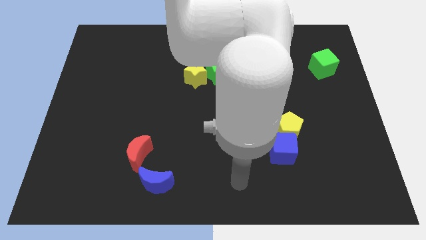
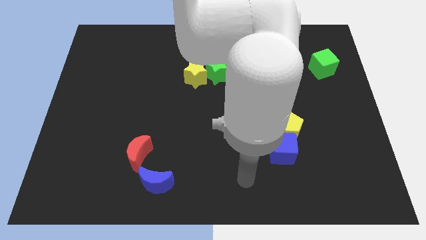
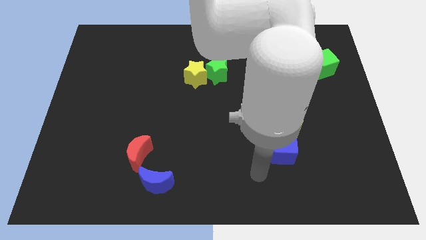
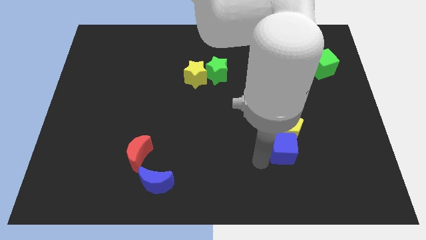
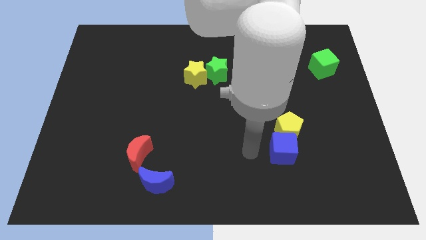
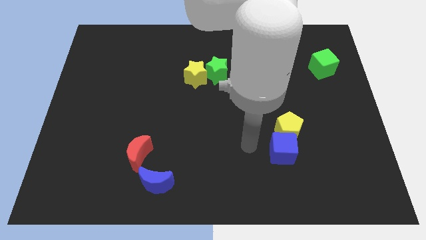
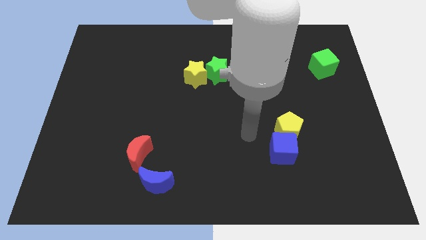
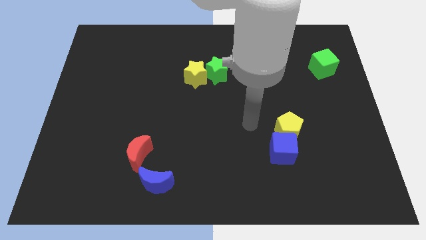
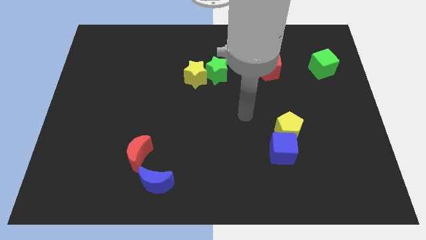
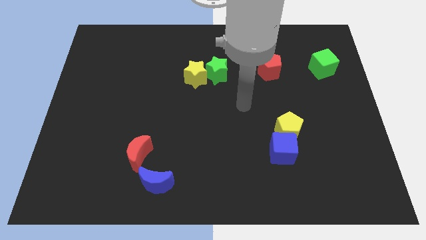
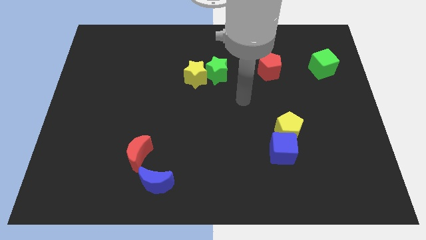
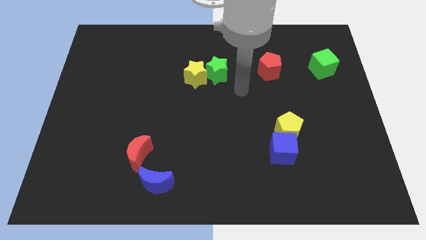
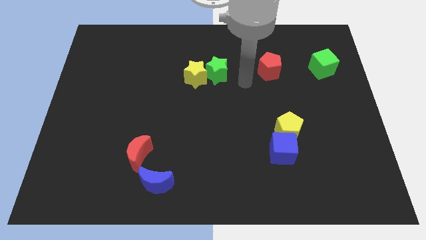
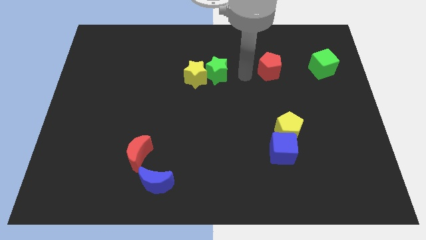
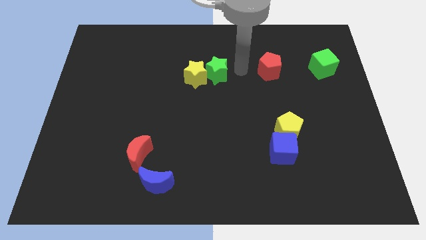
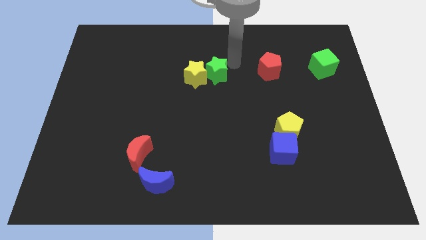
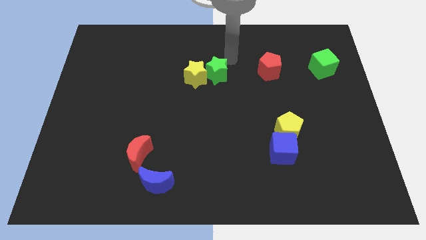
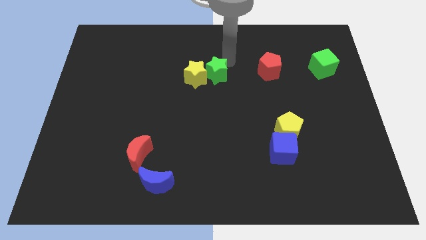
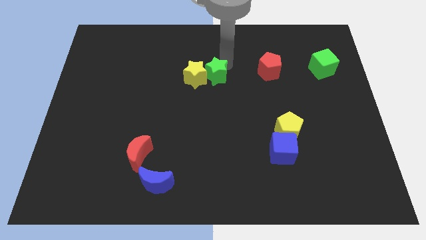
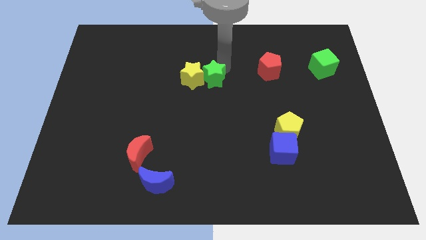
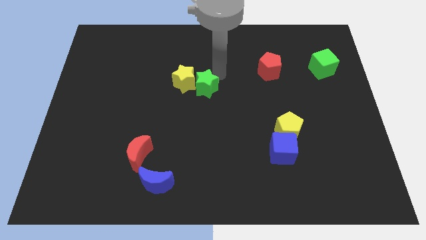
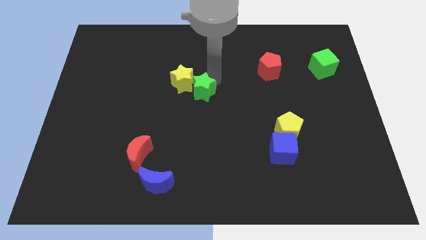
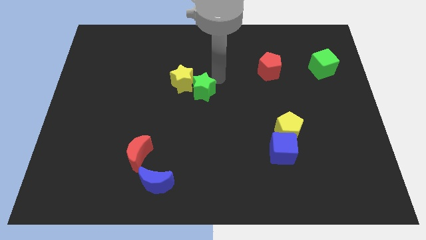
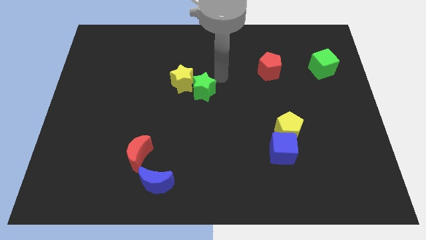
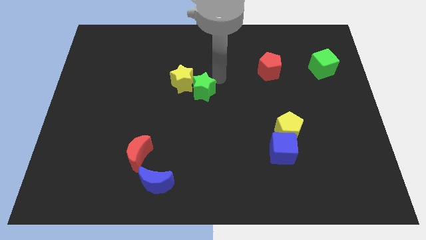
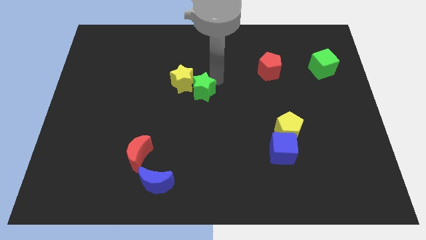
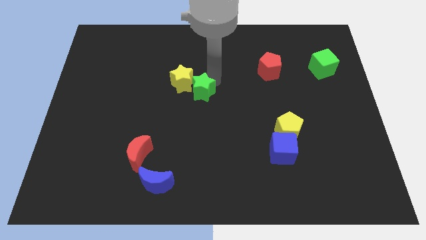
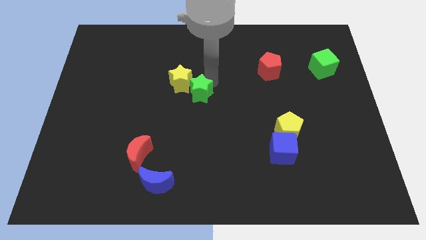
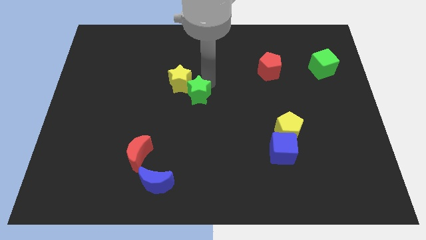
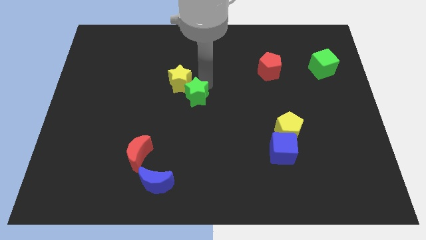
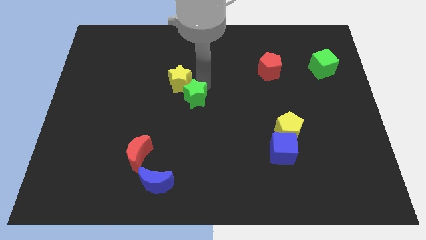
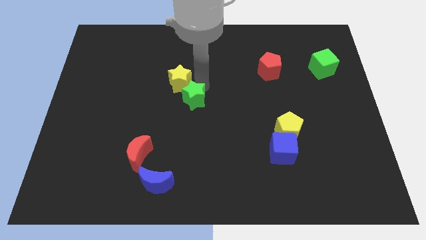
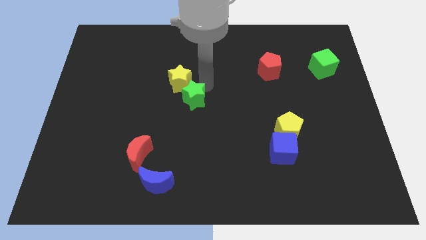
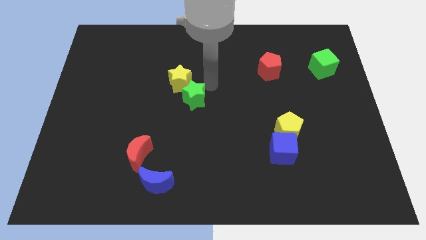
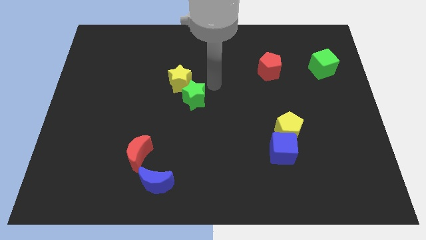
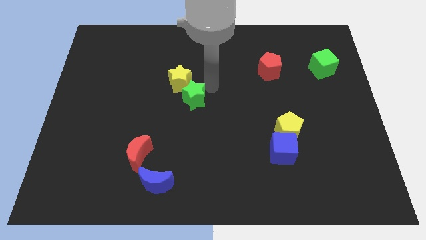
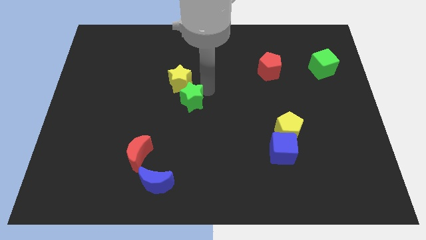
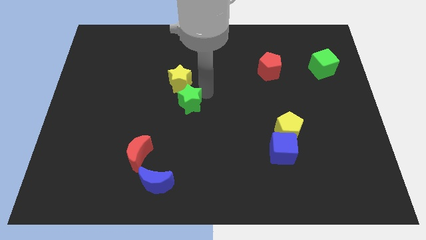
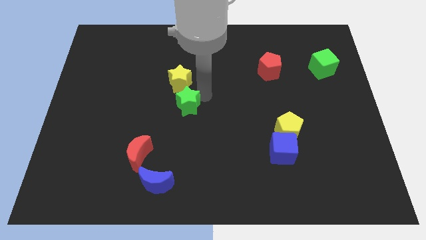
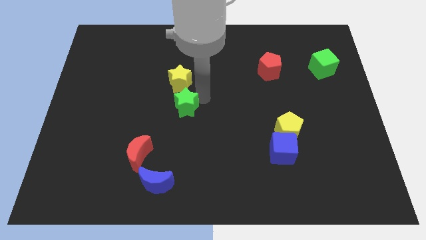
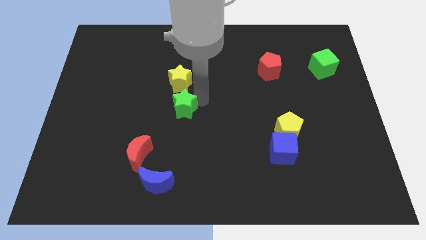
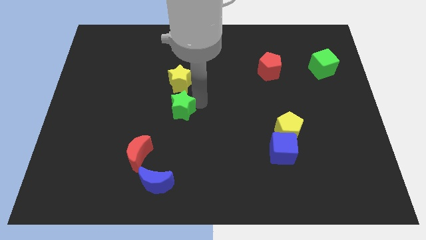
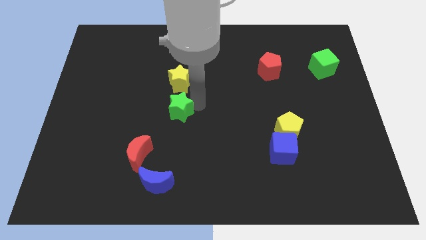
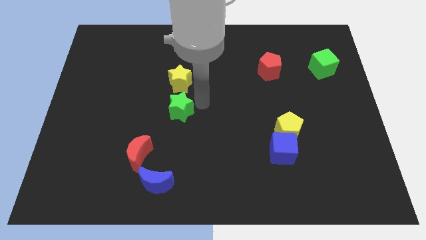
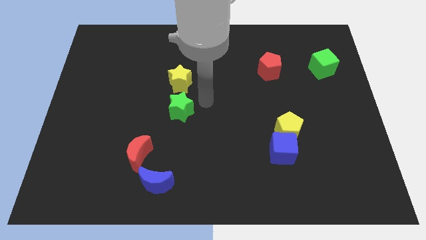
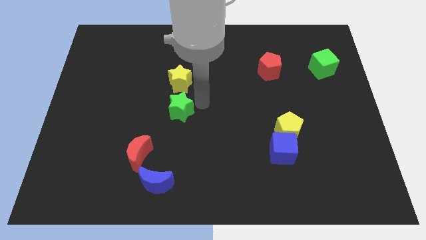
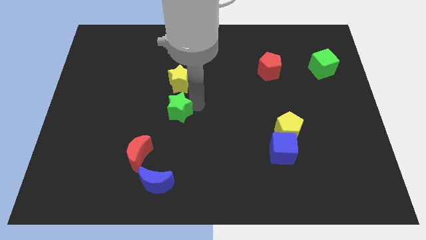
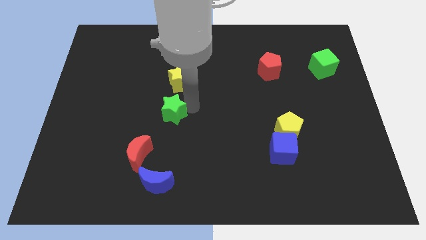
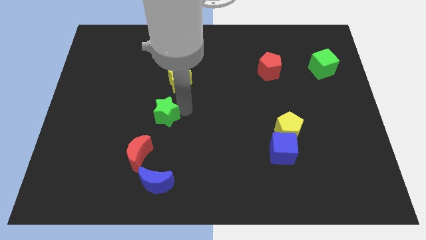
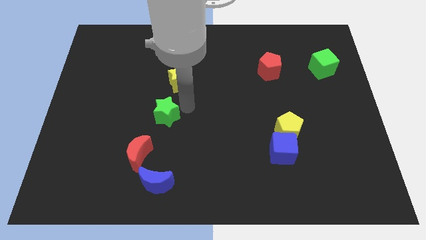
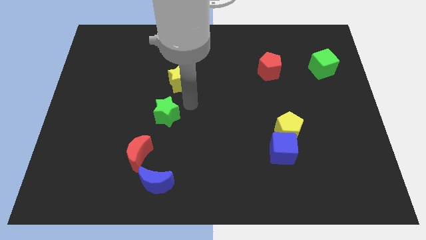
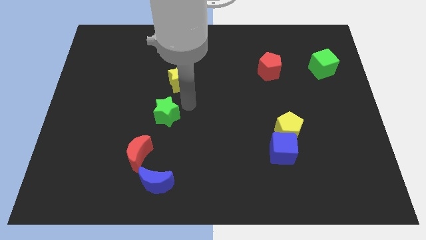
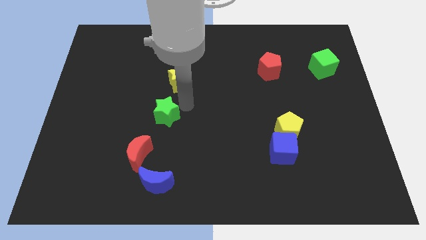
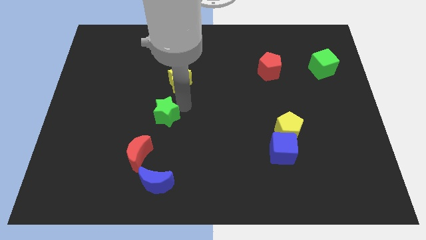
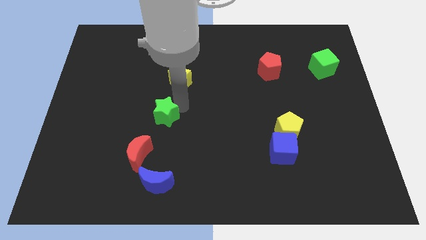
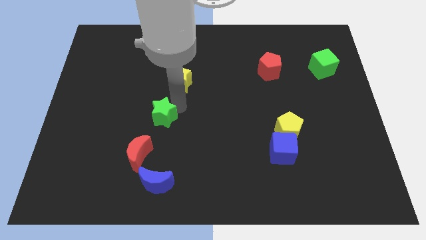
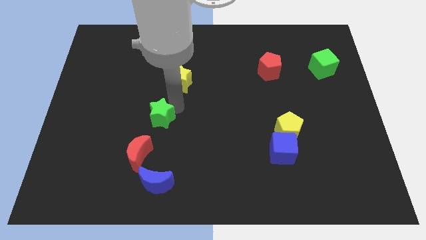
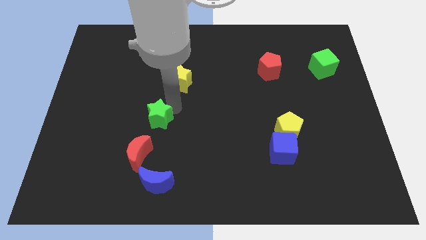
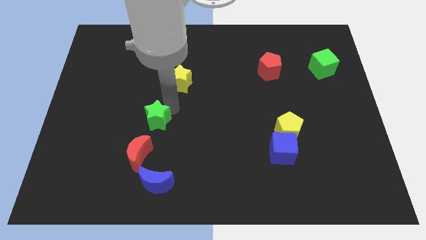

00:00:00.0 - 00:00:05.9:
move the green star downwards and to the left diagonally

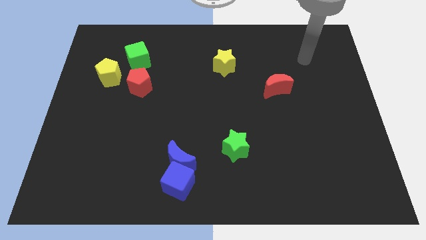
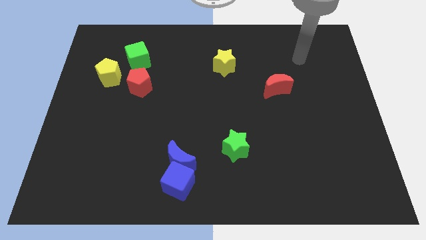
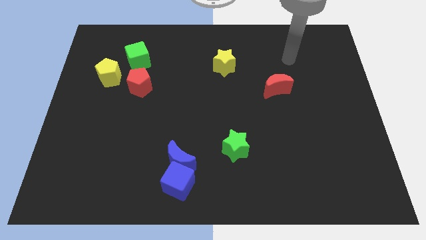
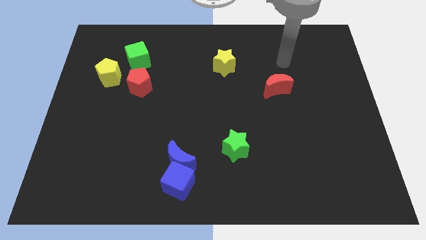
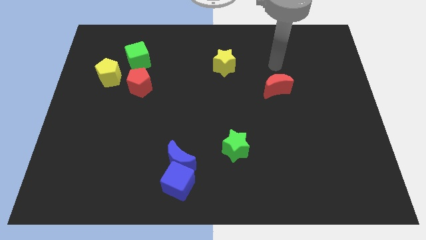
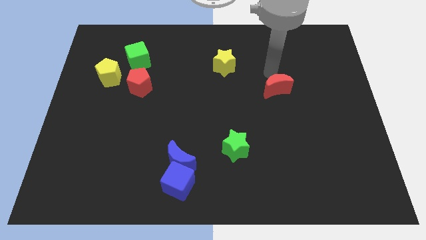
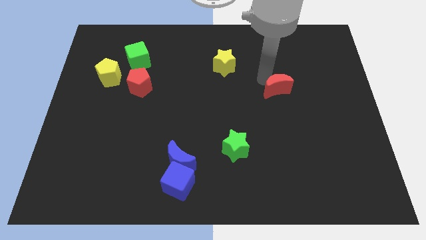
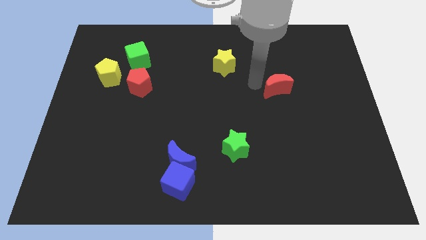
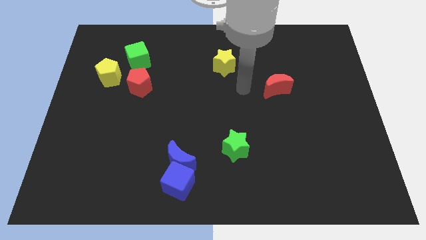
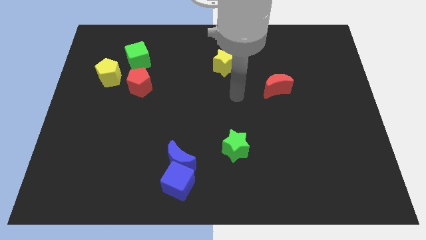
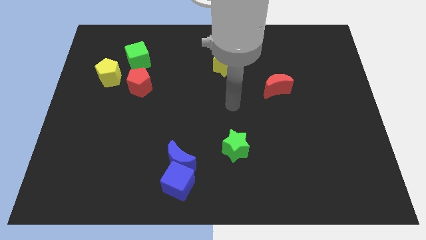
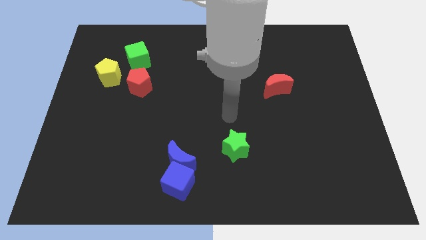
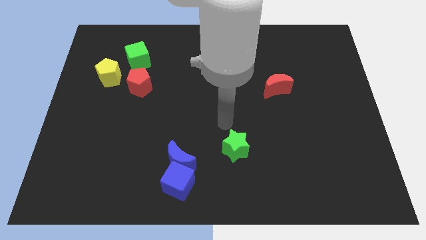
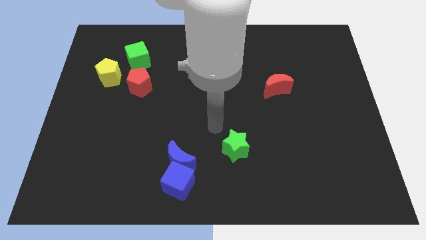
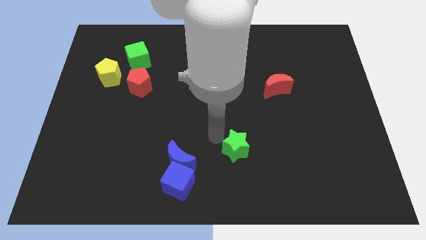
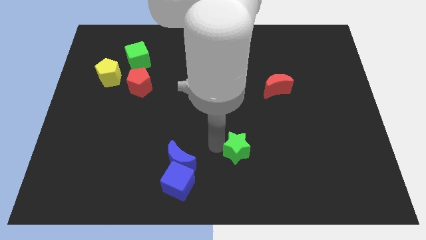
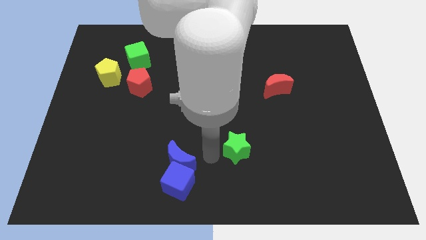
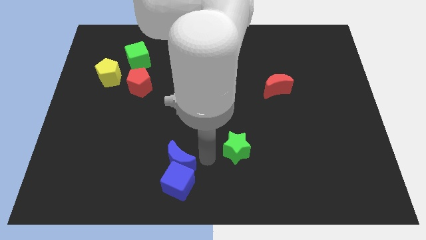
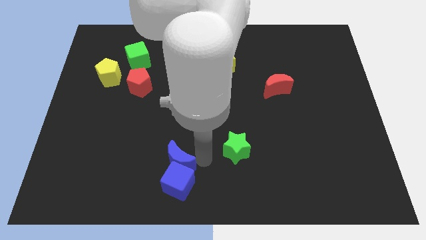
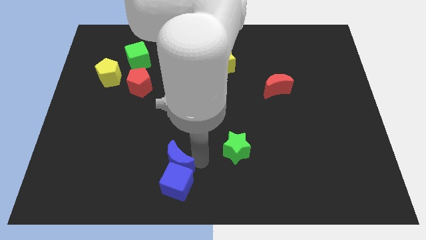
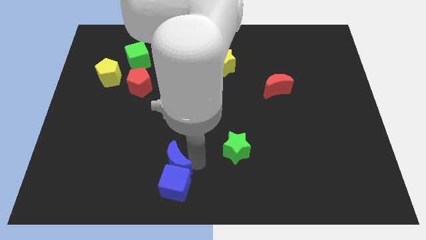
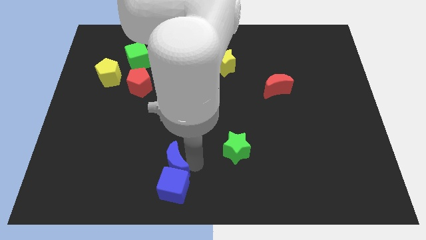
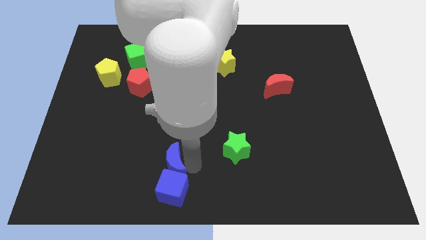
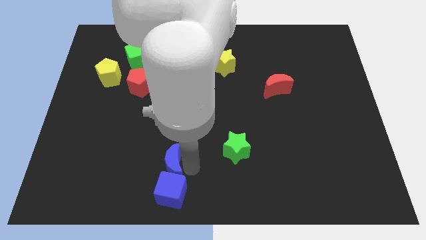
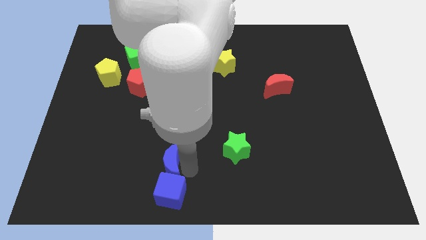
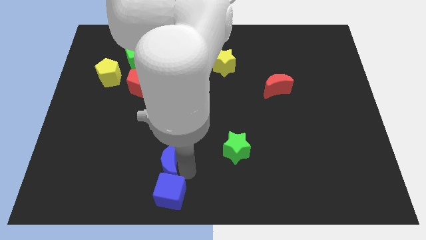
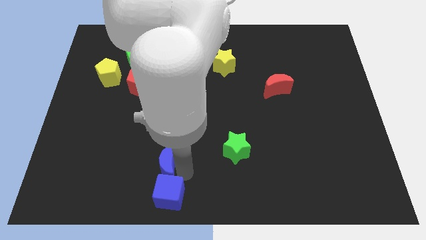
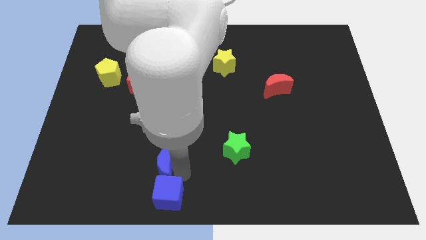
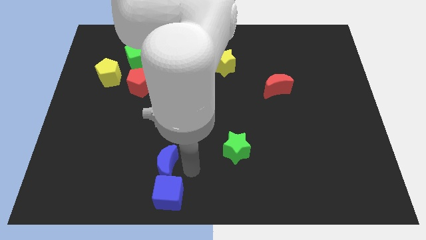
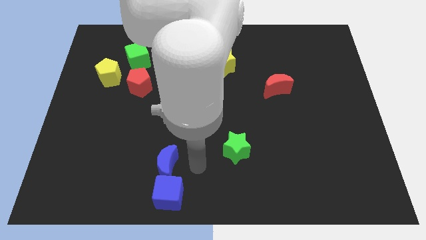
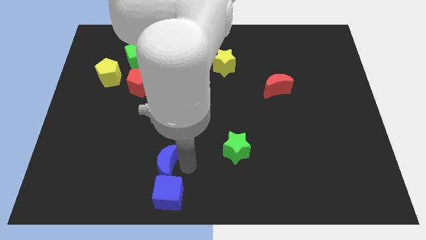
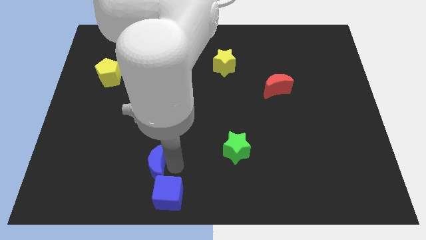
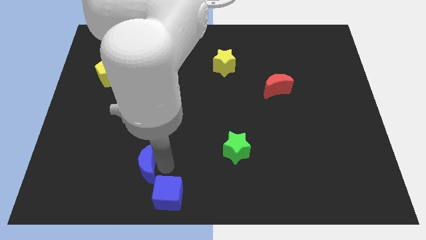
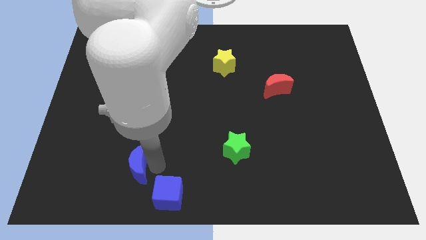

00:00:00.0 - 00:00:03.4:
slightly push the blue moon to the left
